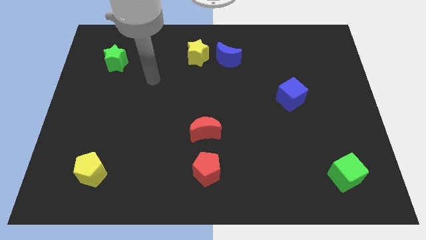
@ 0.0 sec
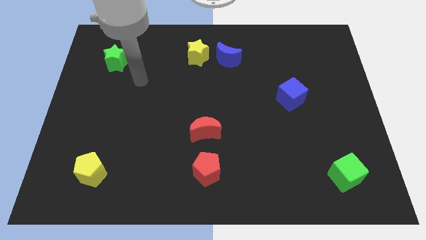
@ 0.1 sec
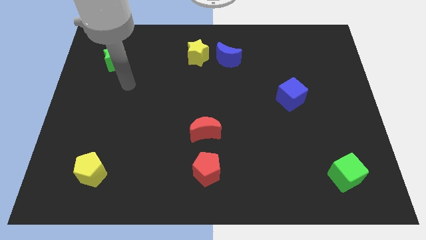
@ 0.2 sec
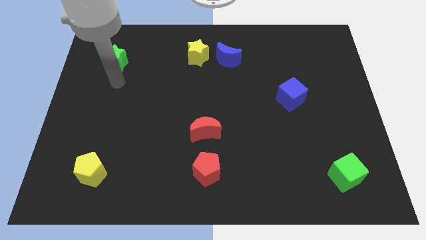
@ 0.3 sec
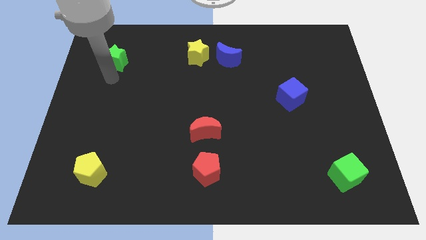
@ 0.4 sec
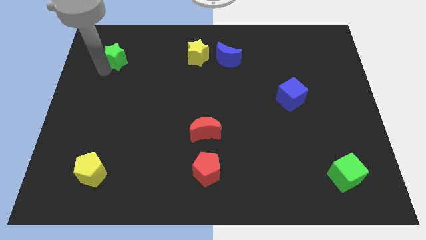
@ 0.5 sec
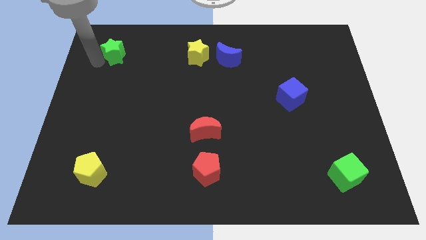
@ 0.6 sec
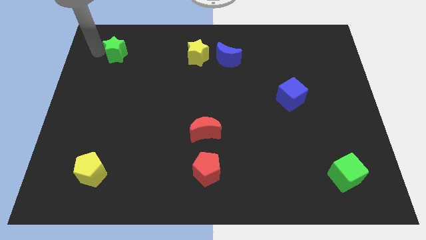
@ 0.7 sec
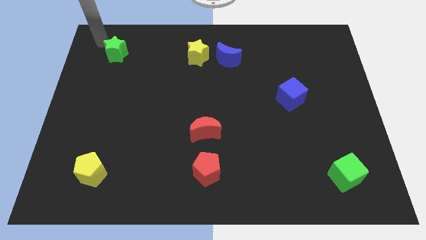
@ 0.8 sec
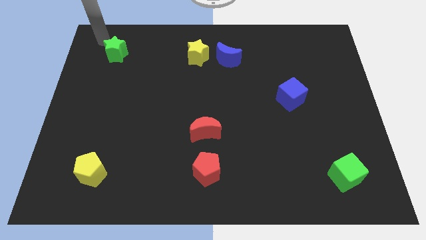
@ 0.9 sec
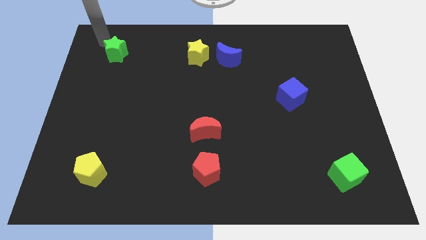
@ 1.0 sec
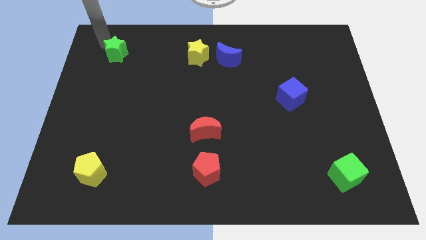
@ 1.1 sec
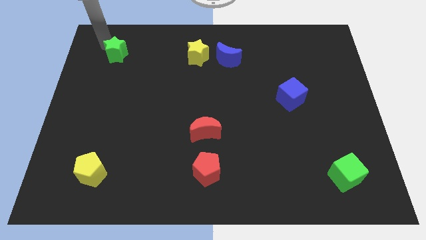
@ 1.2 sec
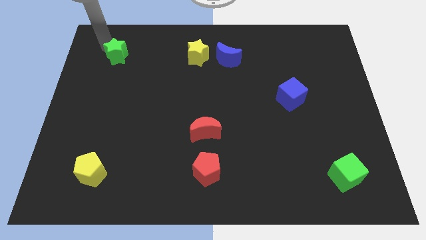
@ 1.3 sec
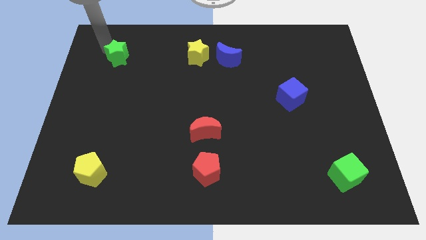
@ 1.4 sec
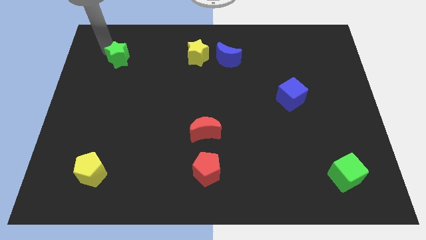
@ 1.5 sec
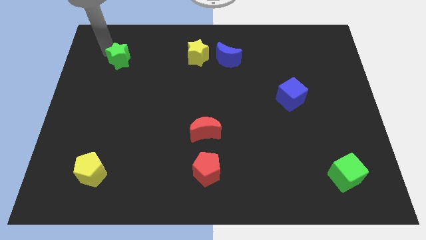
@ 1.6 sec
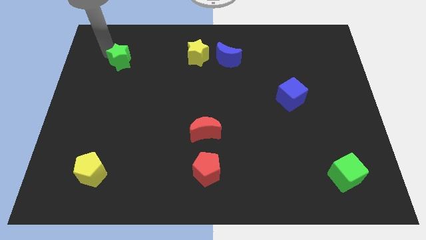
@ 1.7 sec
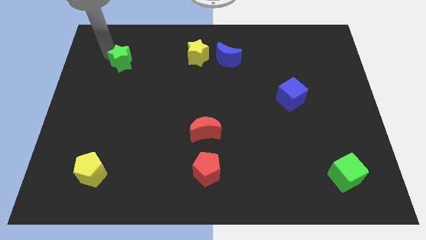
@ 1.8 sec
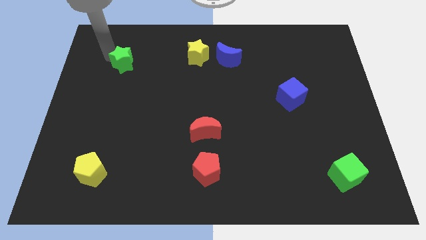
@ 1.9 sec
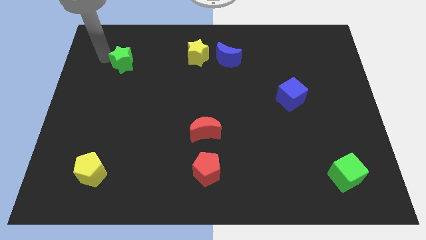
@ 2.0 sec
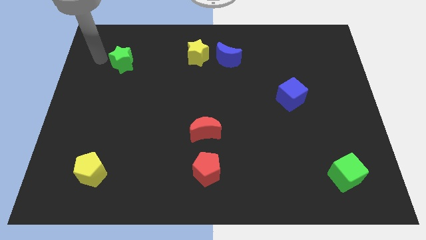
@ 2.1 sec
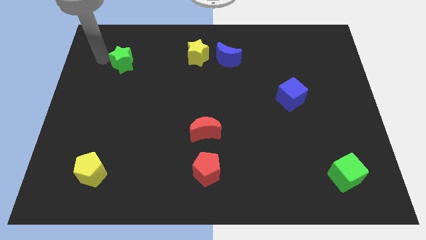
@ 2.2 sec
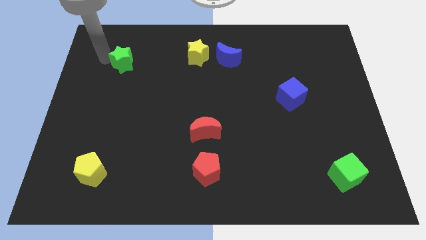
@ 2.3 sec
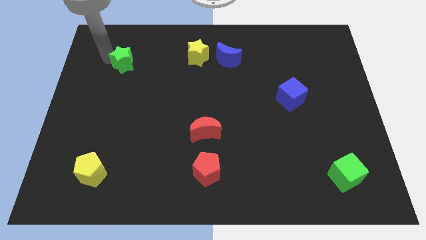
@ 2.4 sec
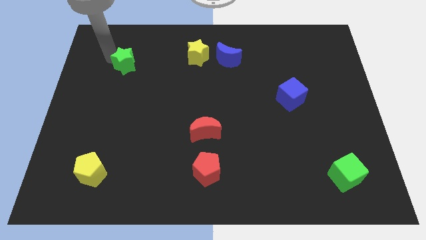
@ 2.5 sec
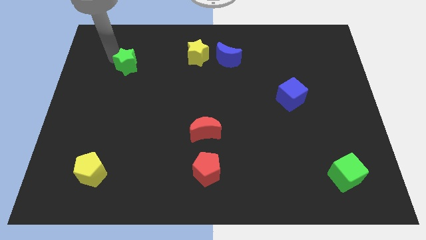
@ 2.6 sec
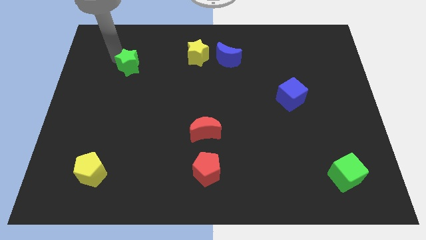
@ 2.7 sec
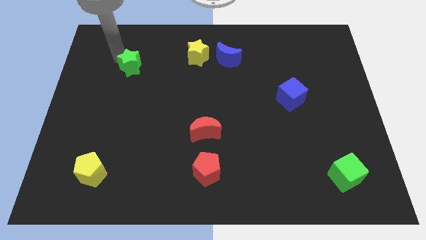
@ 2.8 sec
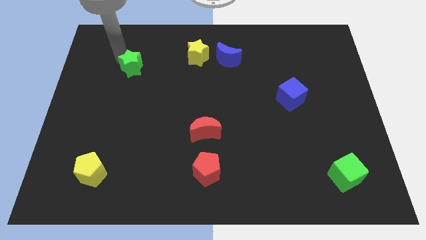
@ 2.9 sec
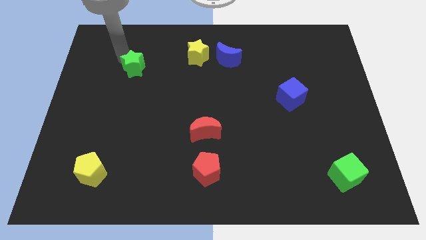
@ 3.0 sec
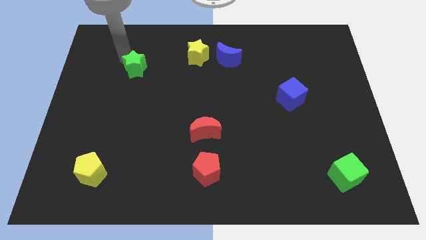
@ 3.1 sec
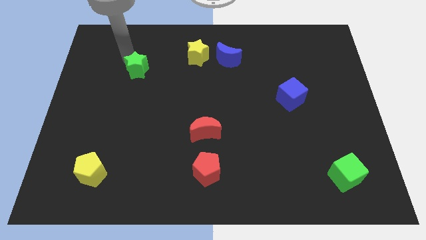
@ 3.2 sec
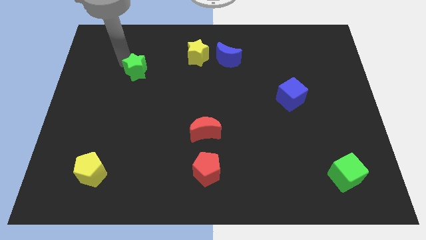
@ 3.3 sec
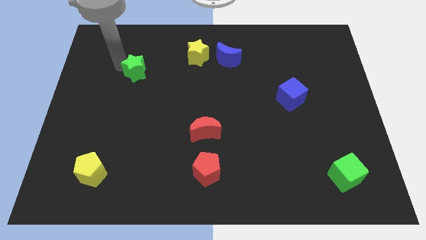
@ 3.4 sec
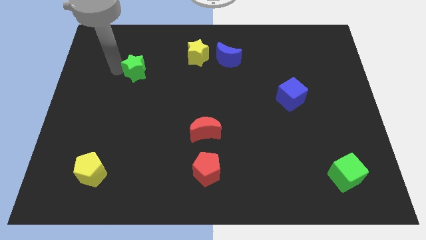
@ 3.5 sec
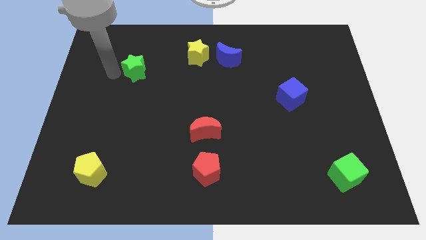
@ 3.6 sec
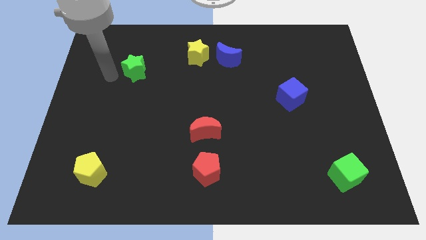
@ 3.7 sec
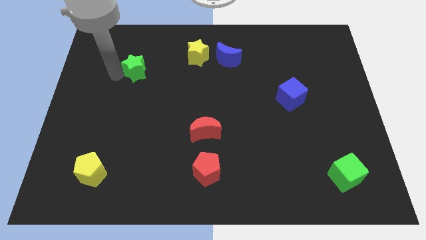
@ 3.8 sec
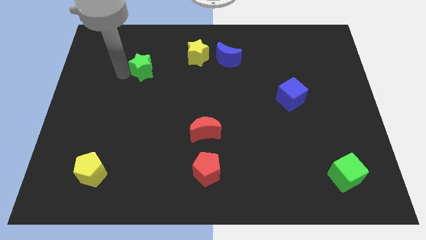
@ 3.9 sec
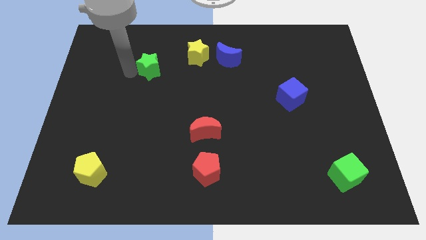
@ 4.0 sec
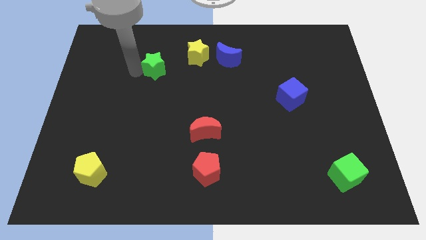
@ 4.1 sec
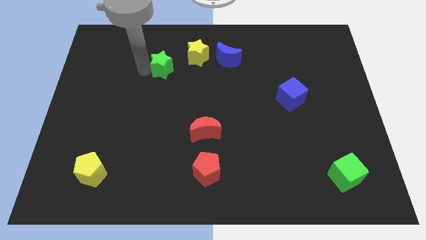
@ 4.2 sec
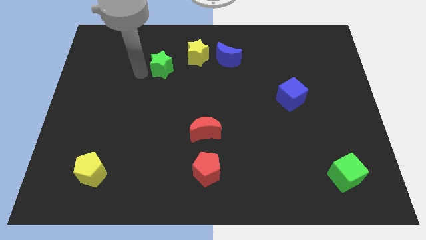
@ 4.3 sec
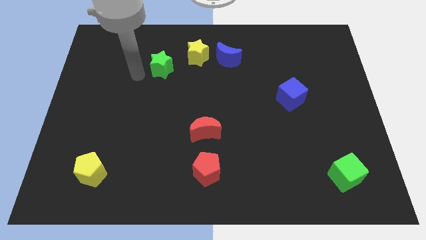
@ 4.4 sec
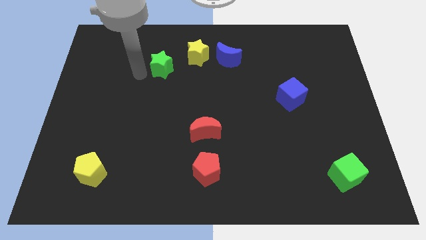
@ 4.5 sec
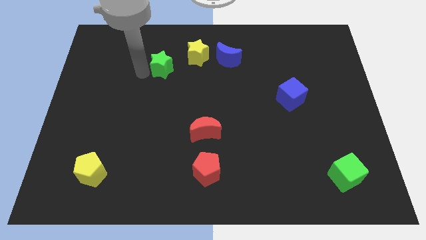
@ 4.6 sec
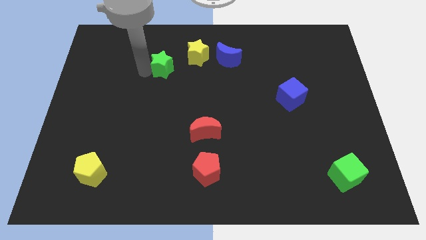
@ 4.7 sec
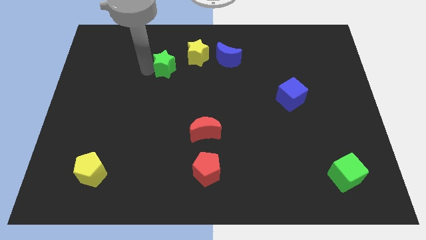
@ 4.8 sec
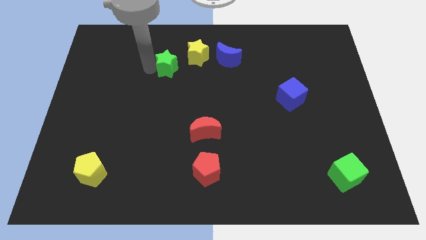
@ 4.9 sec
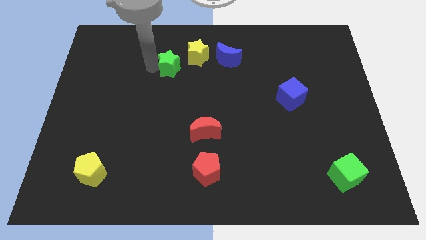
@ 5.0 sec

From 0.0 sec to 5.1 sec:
put the green star to the left of the blue moon

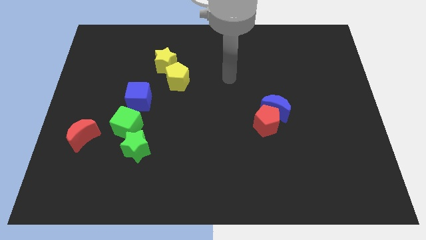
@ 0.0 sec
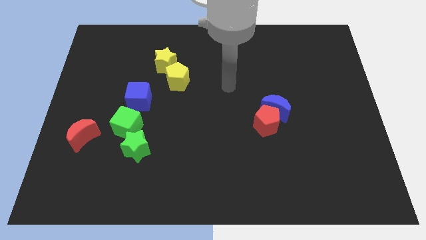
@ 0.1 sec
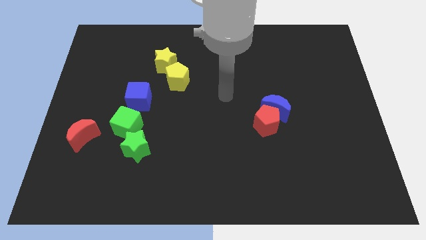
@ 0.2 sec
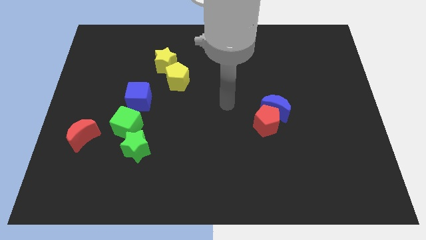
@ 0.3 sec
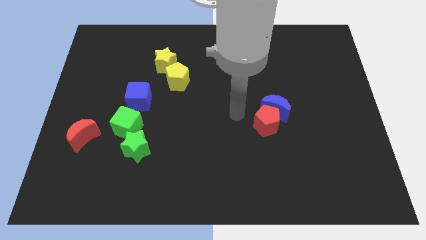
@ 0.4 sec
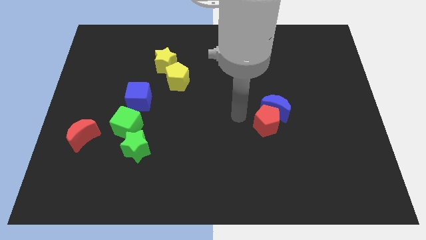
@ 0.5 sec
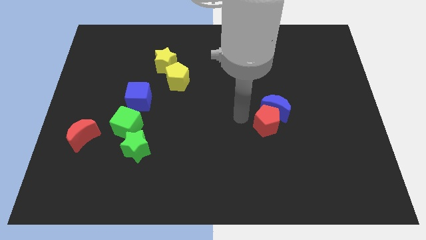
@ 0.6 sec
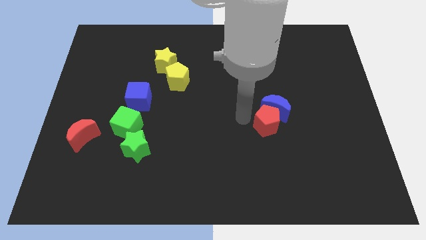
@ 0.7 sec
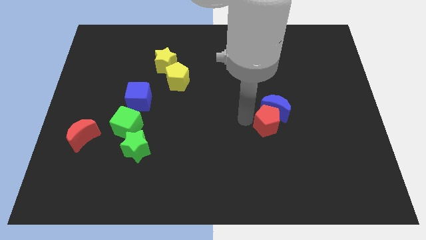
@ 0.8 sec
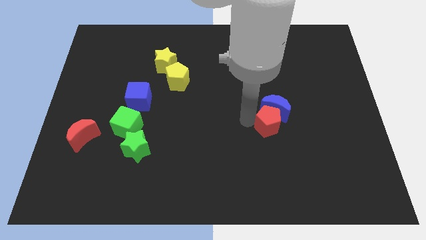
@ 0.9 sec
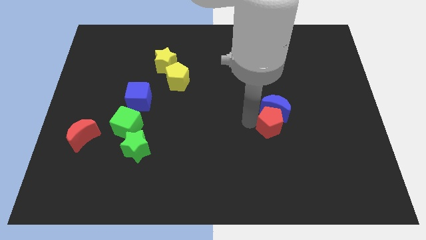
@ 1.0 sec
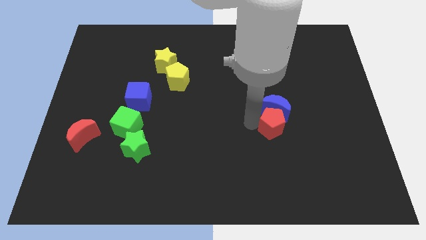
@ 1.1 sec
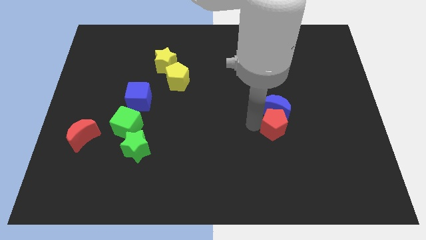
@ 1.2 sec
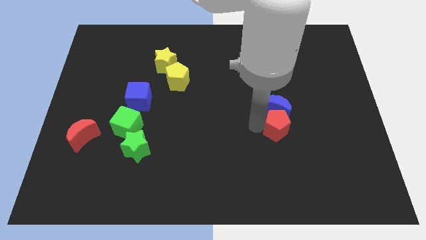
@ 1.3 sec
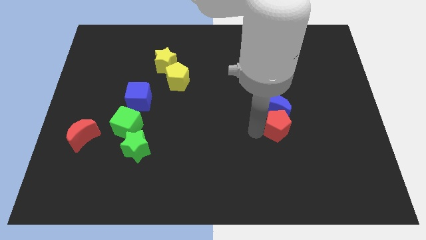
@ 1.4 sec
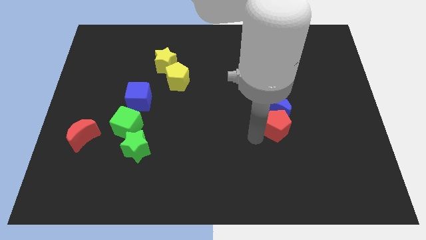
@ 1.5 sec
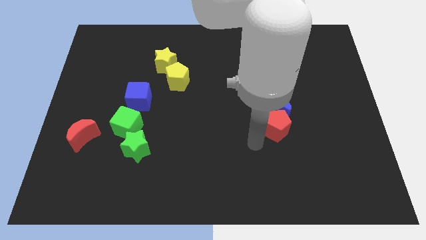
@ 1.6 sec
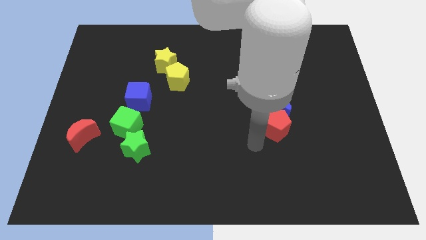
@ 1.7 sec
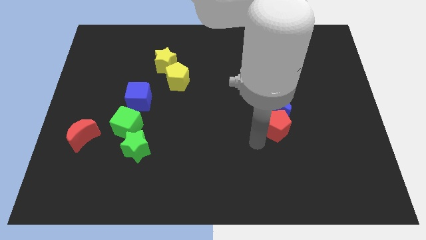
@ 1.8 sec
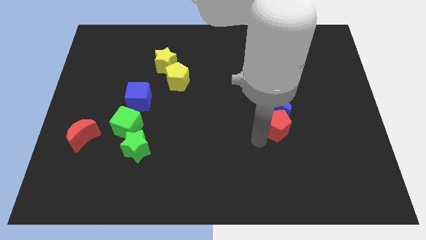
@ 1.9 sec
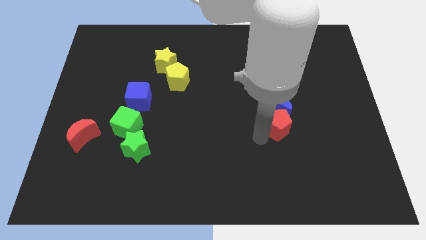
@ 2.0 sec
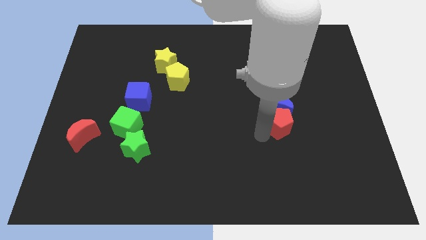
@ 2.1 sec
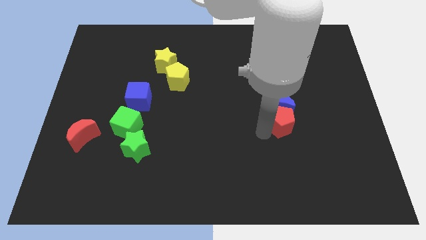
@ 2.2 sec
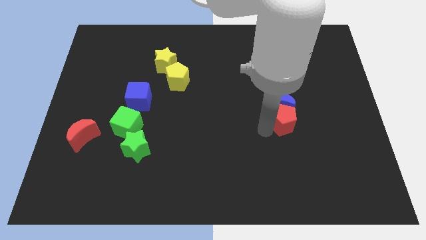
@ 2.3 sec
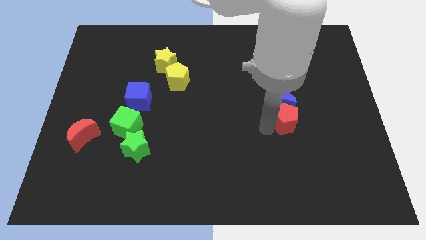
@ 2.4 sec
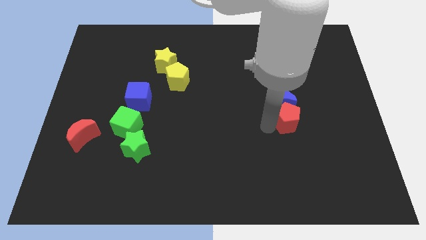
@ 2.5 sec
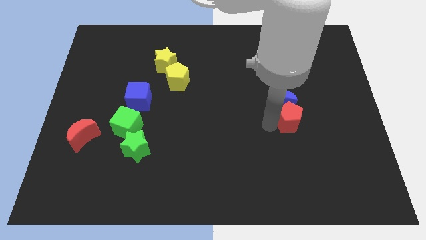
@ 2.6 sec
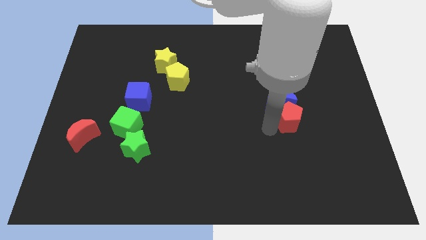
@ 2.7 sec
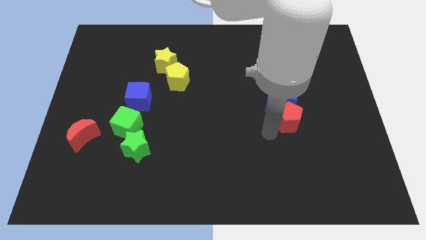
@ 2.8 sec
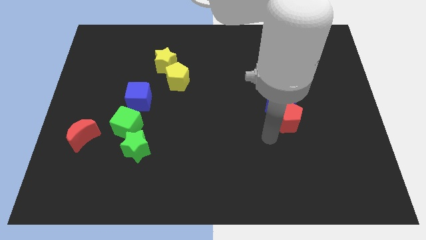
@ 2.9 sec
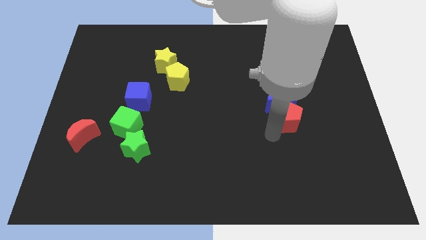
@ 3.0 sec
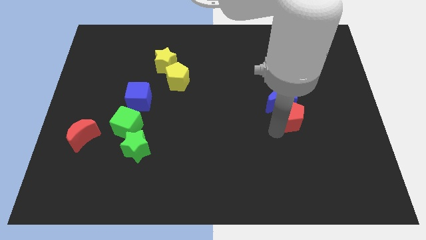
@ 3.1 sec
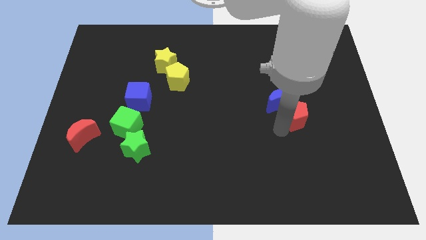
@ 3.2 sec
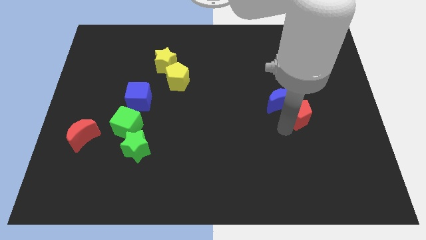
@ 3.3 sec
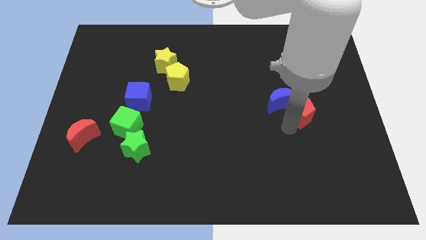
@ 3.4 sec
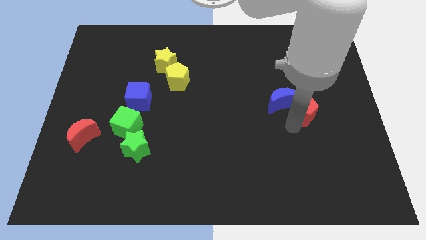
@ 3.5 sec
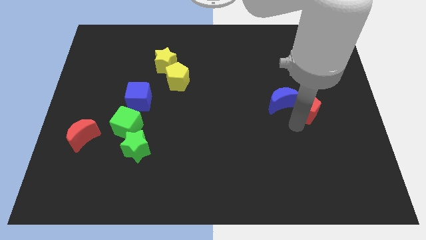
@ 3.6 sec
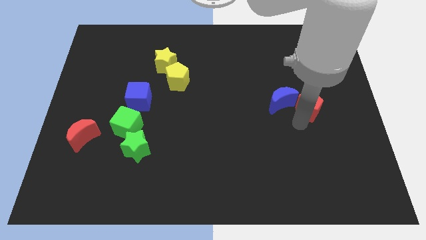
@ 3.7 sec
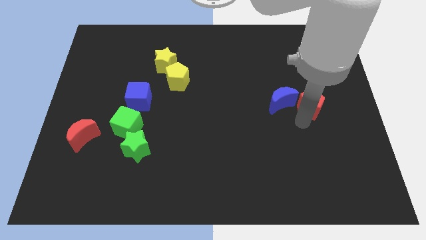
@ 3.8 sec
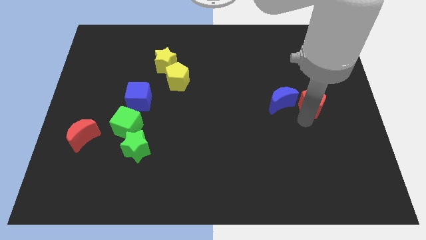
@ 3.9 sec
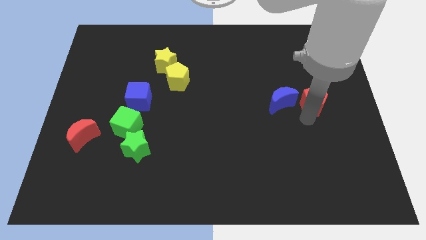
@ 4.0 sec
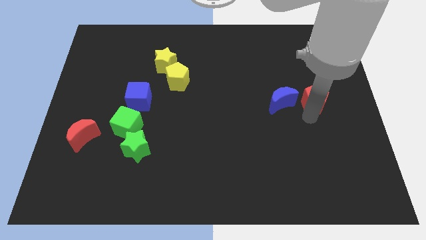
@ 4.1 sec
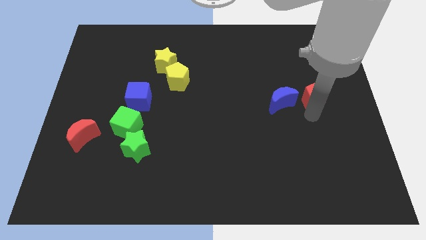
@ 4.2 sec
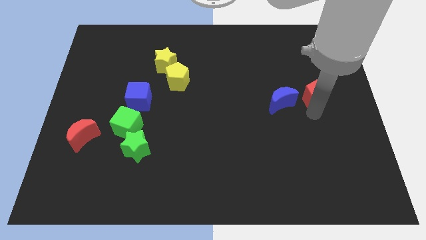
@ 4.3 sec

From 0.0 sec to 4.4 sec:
slide the red pentagon diagonally up and to the right of the blue moon
